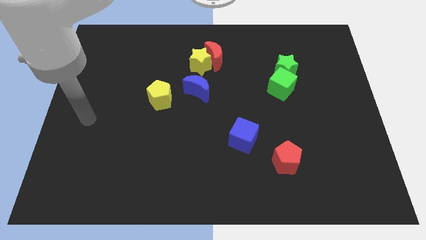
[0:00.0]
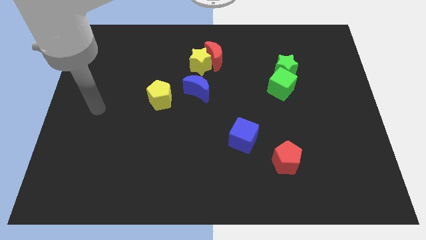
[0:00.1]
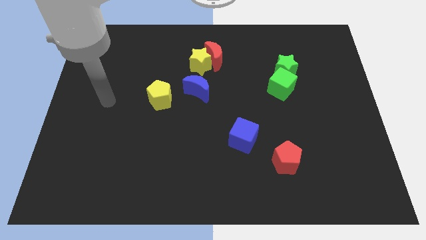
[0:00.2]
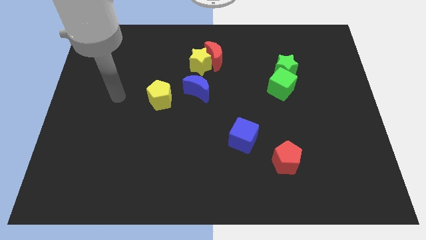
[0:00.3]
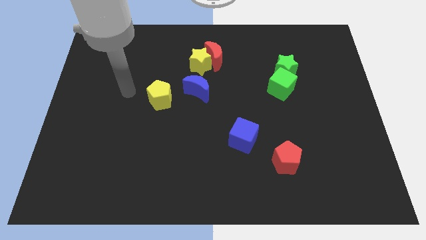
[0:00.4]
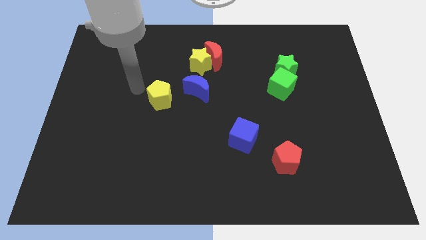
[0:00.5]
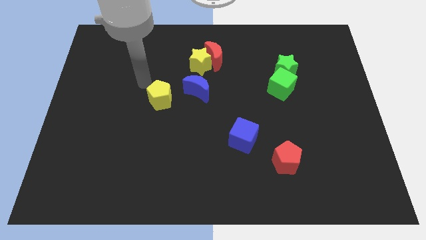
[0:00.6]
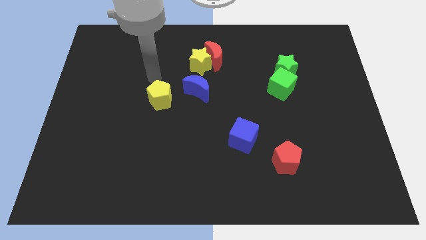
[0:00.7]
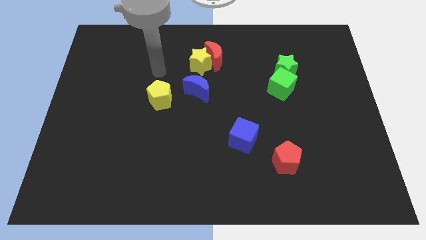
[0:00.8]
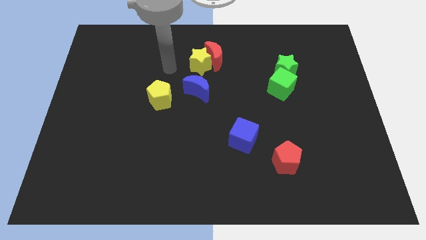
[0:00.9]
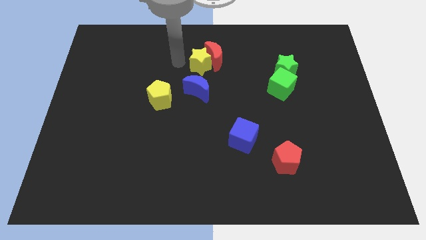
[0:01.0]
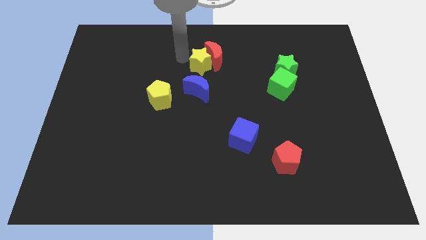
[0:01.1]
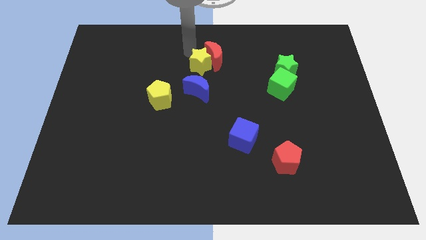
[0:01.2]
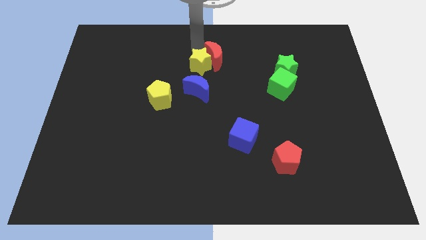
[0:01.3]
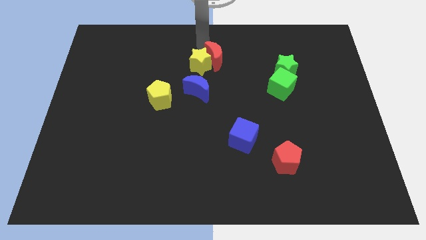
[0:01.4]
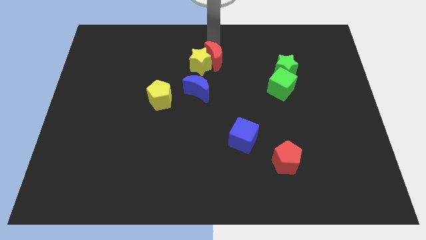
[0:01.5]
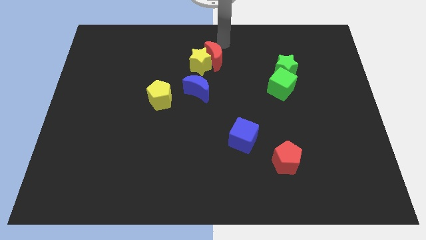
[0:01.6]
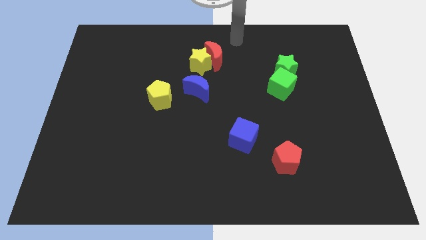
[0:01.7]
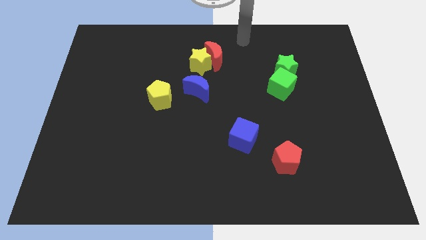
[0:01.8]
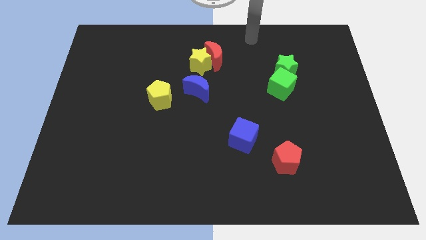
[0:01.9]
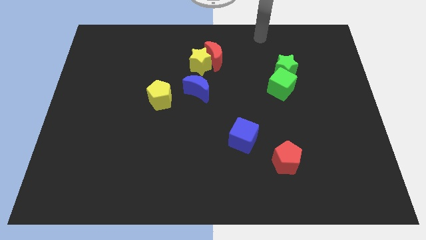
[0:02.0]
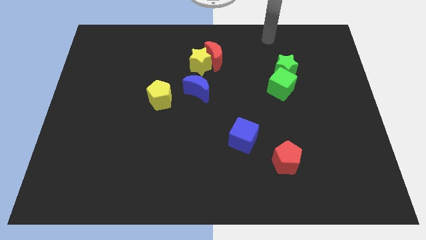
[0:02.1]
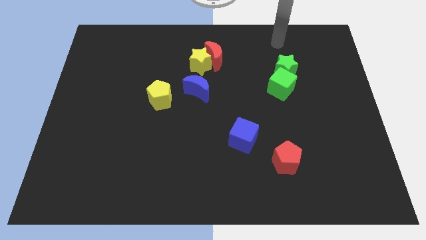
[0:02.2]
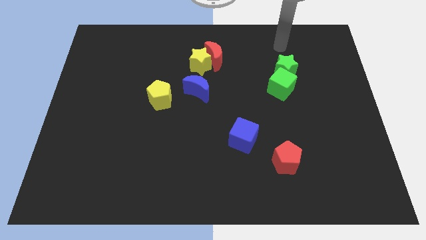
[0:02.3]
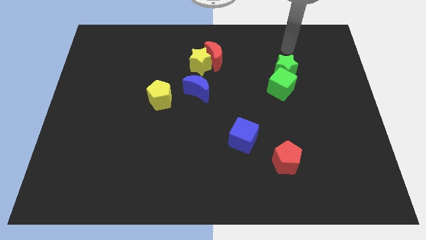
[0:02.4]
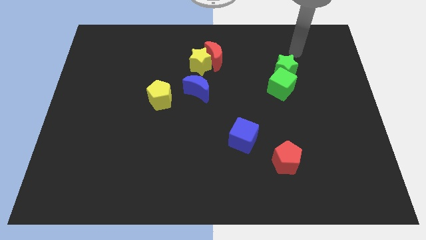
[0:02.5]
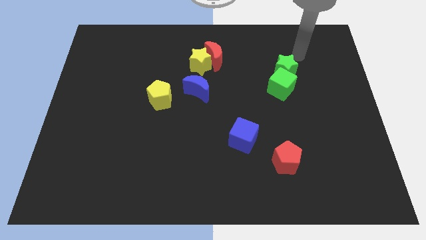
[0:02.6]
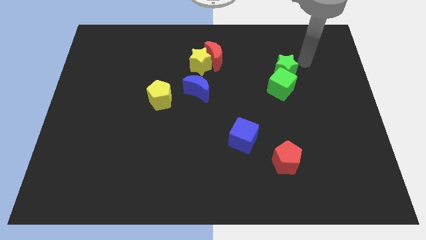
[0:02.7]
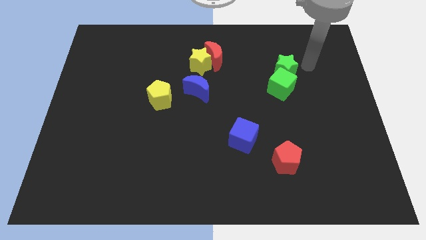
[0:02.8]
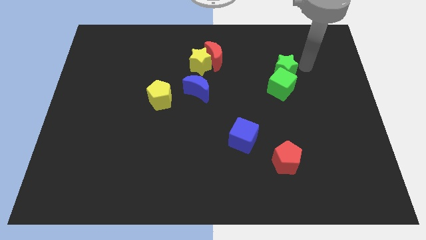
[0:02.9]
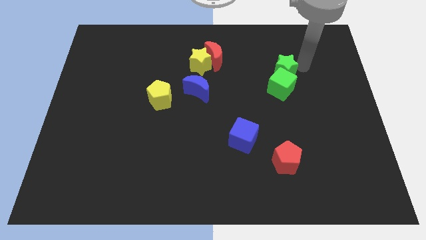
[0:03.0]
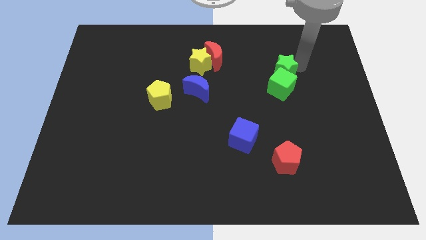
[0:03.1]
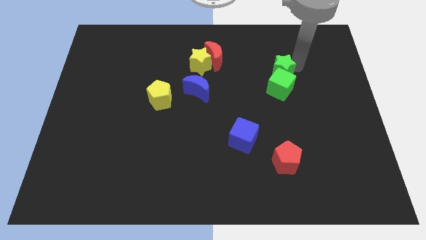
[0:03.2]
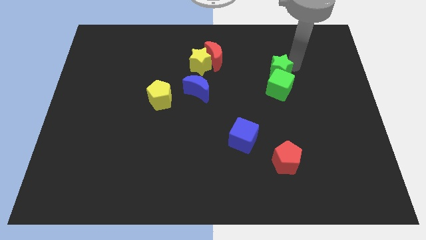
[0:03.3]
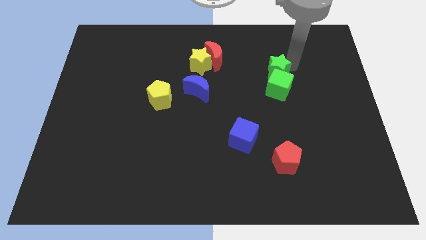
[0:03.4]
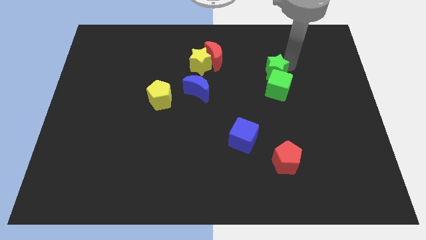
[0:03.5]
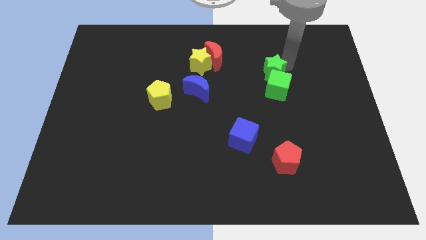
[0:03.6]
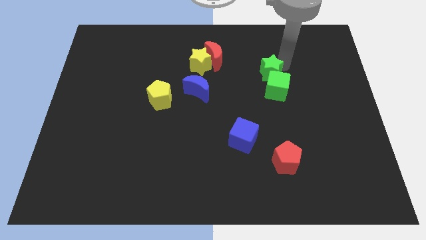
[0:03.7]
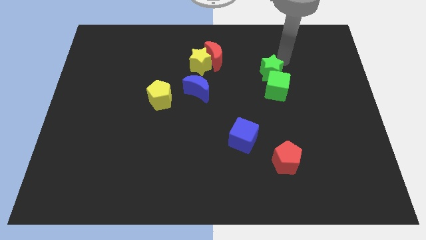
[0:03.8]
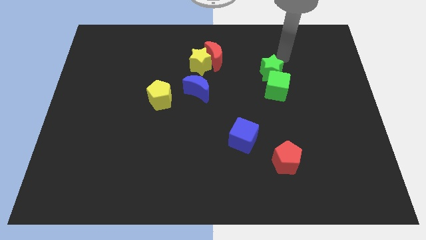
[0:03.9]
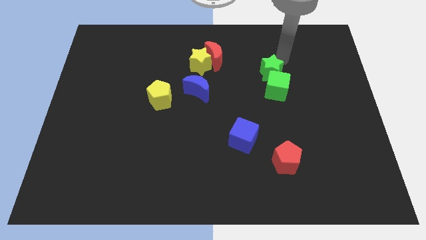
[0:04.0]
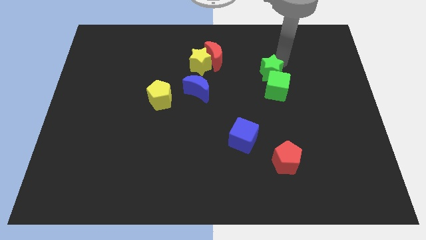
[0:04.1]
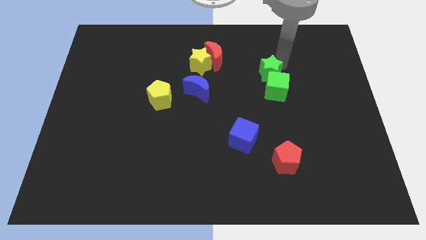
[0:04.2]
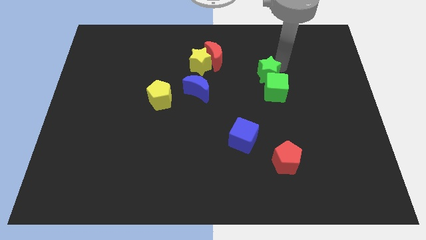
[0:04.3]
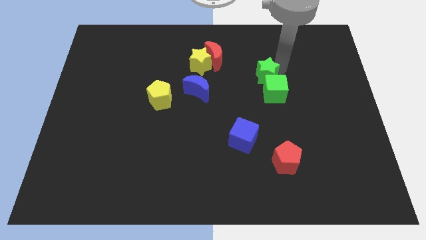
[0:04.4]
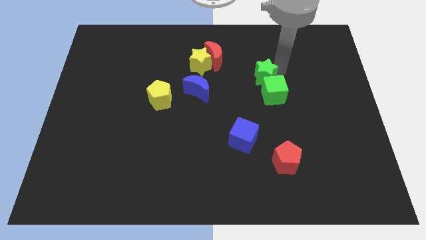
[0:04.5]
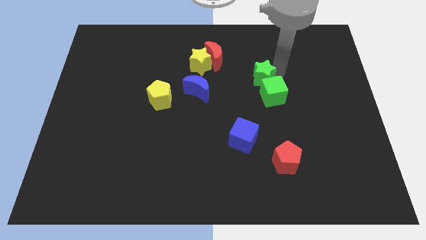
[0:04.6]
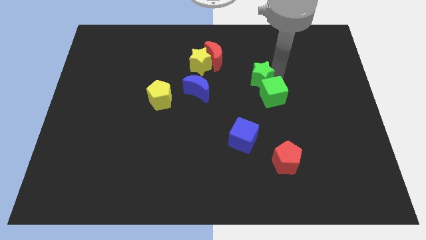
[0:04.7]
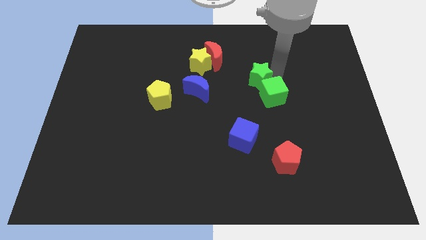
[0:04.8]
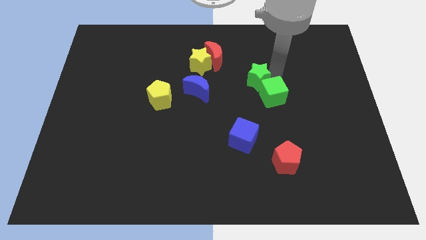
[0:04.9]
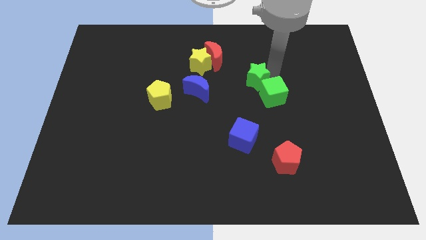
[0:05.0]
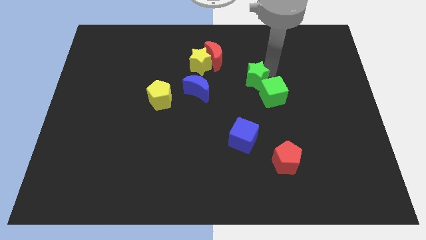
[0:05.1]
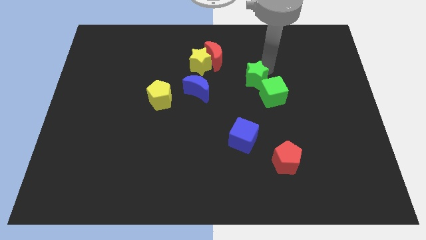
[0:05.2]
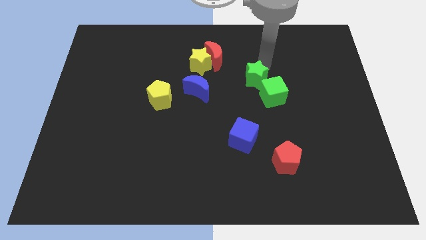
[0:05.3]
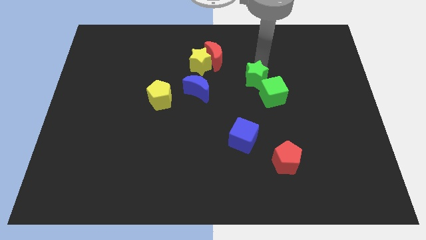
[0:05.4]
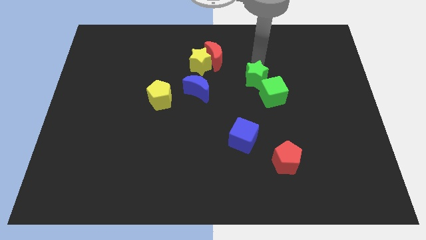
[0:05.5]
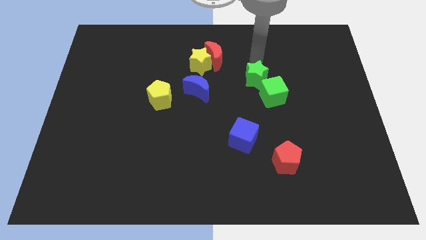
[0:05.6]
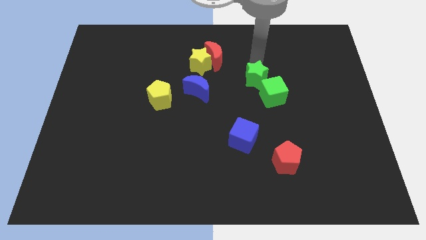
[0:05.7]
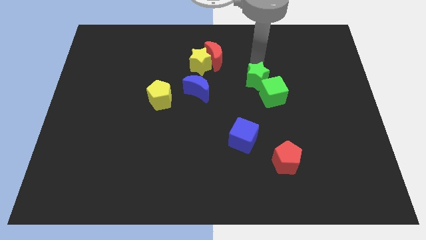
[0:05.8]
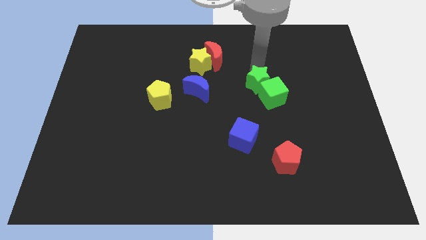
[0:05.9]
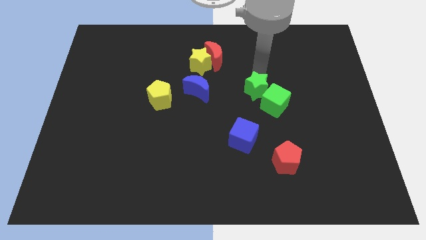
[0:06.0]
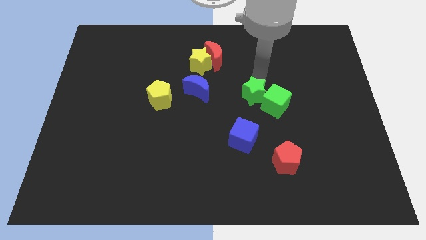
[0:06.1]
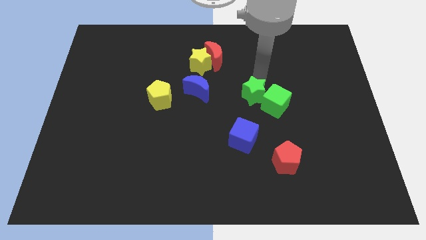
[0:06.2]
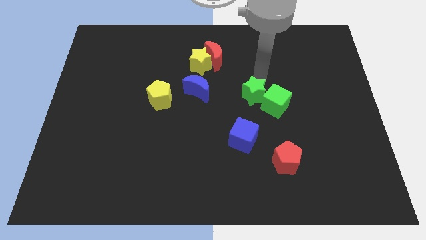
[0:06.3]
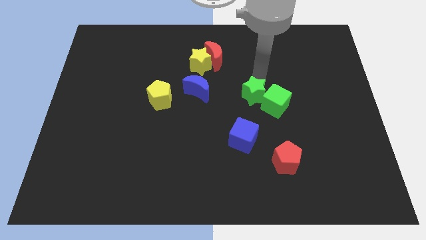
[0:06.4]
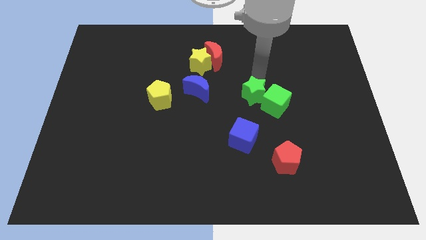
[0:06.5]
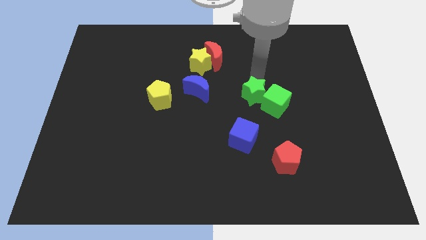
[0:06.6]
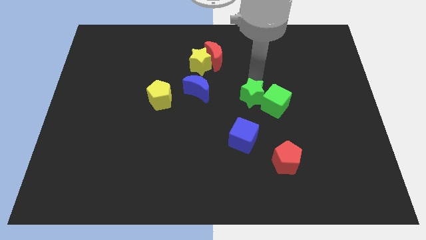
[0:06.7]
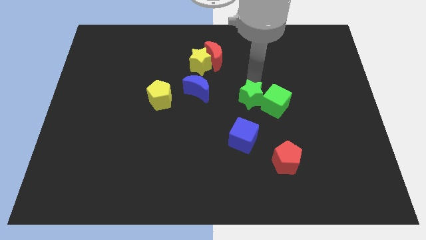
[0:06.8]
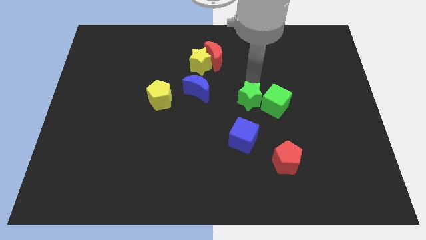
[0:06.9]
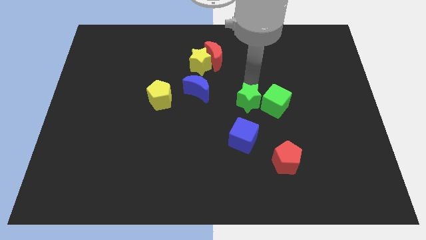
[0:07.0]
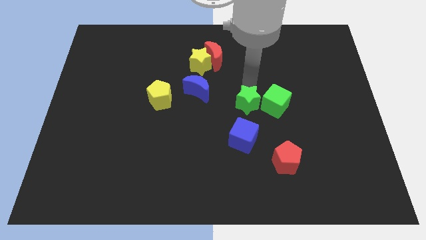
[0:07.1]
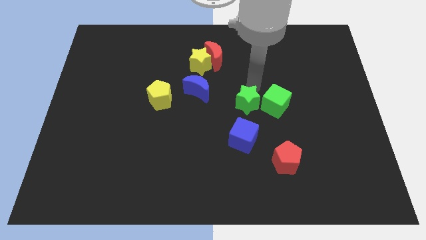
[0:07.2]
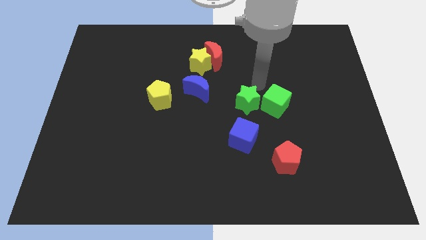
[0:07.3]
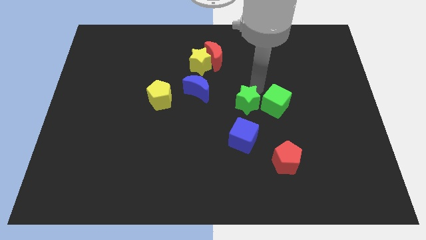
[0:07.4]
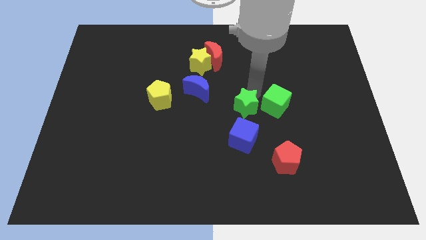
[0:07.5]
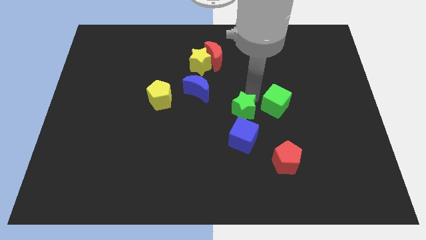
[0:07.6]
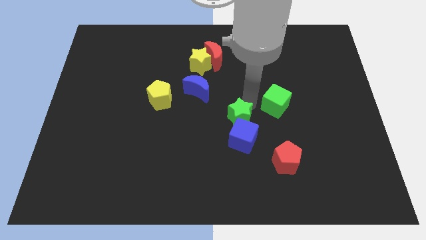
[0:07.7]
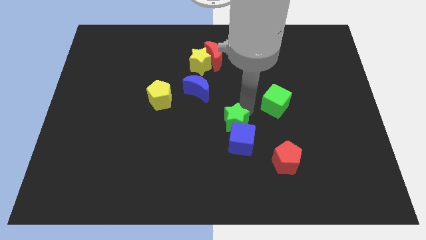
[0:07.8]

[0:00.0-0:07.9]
push the green star diagonally down and left

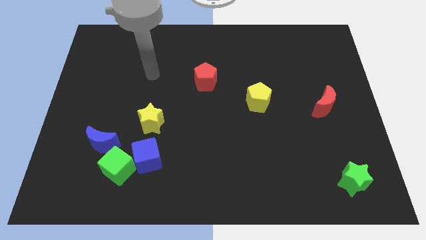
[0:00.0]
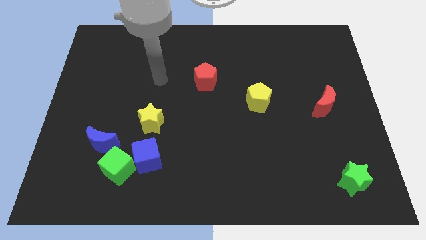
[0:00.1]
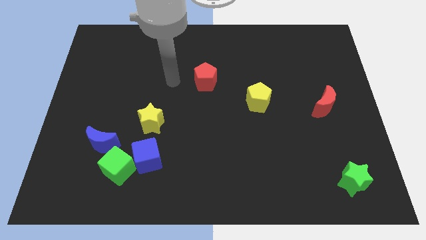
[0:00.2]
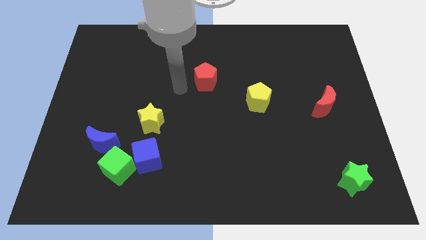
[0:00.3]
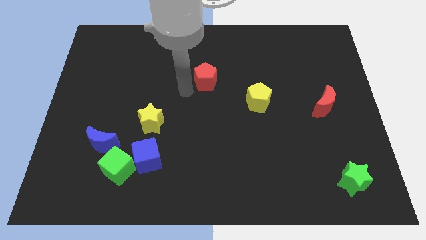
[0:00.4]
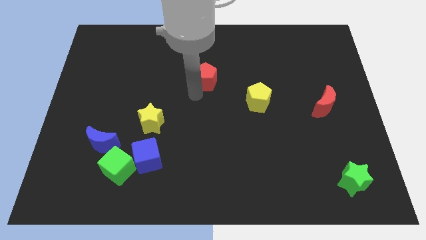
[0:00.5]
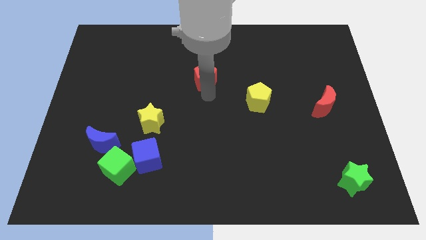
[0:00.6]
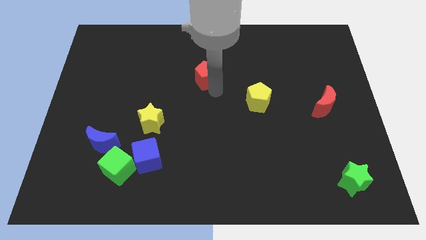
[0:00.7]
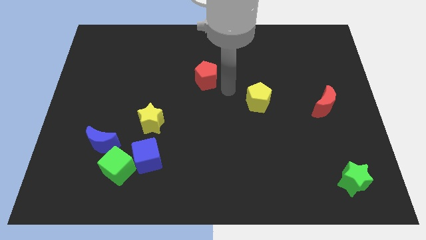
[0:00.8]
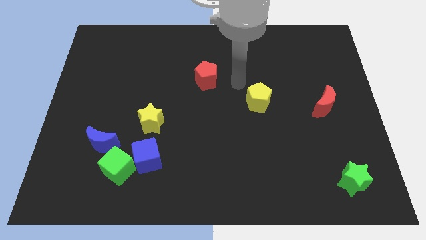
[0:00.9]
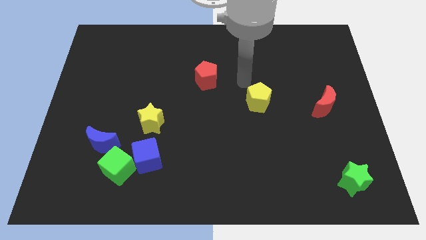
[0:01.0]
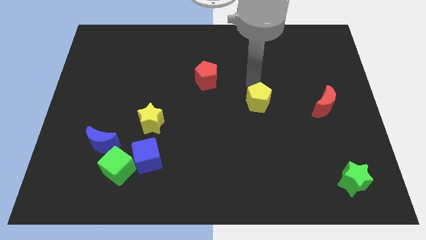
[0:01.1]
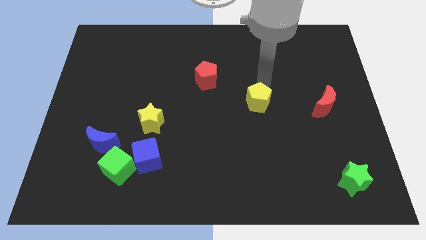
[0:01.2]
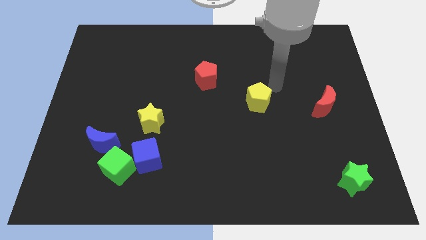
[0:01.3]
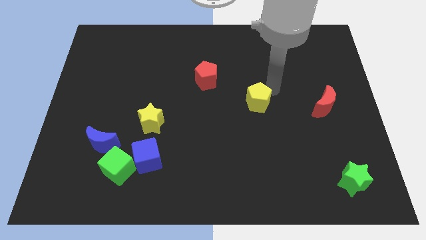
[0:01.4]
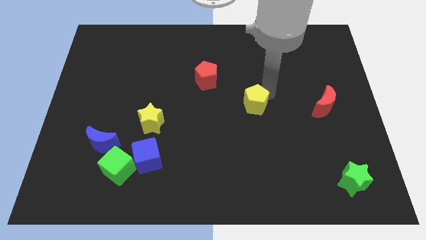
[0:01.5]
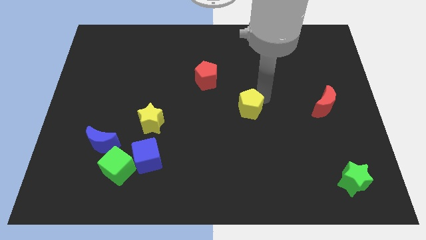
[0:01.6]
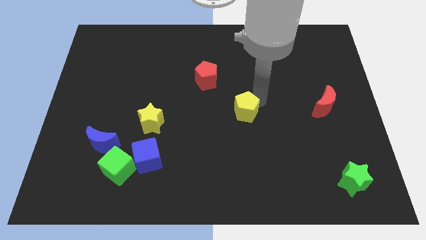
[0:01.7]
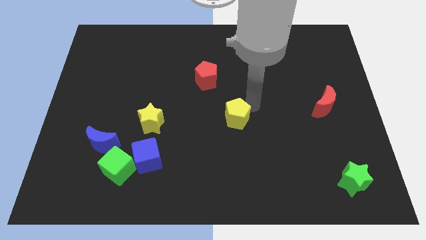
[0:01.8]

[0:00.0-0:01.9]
push the yellow pentagon a little bit down and left
